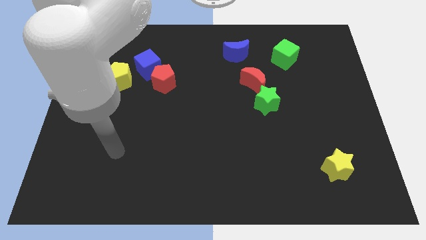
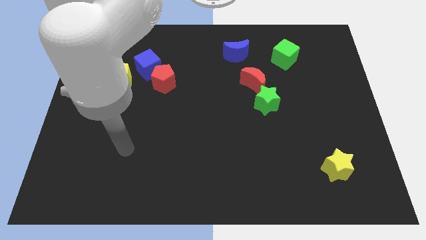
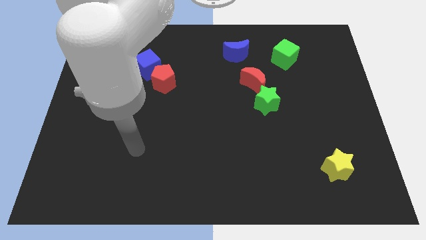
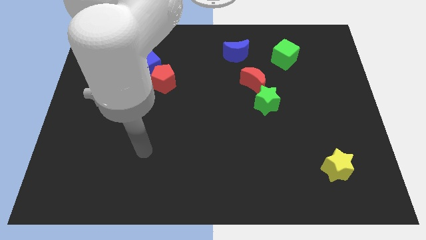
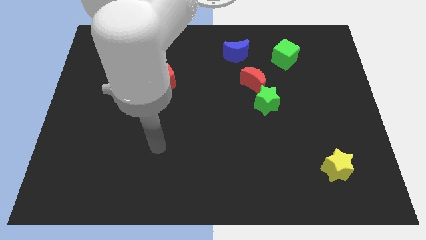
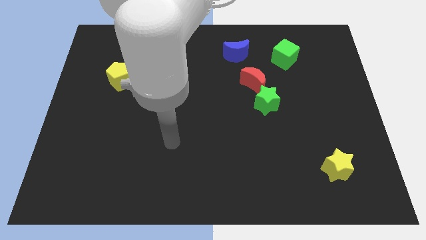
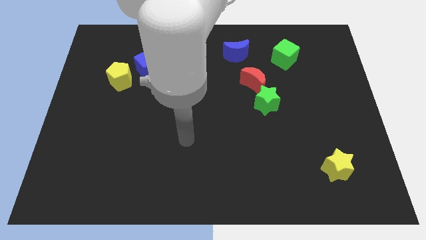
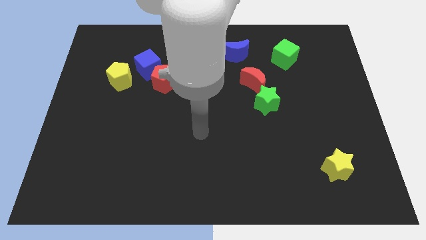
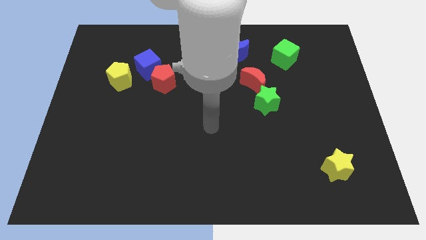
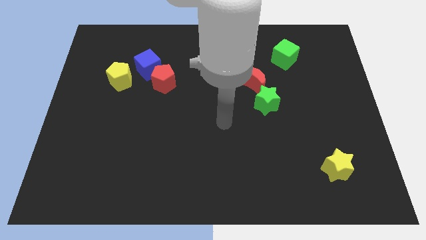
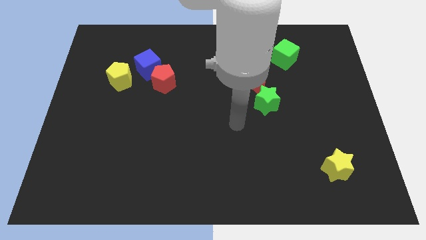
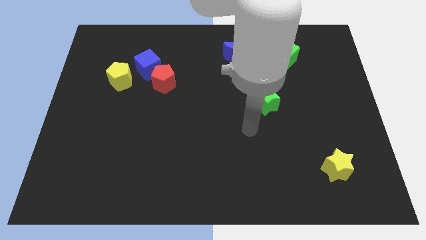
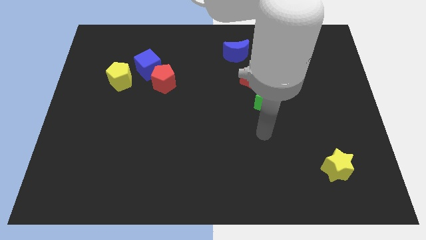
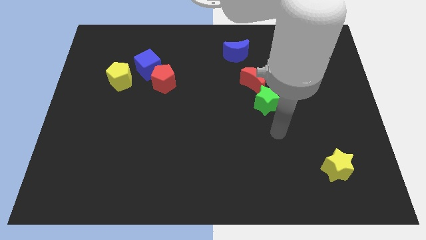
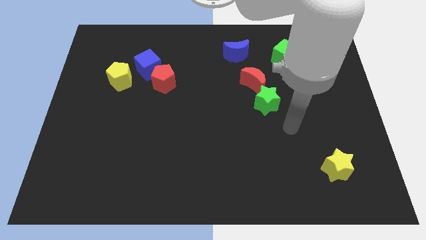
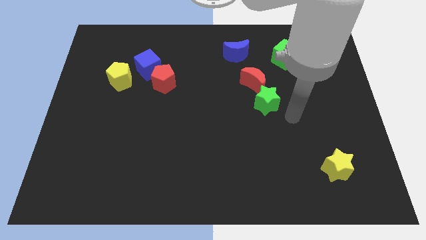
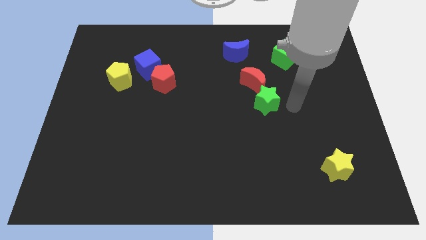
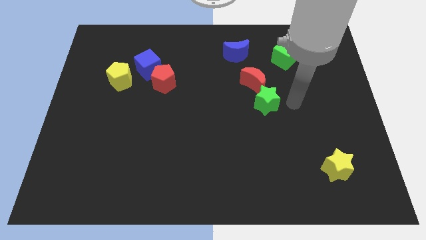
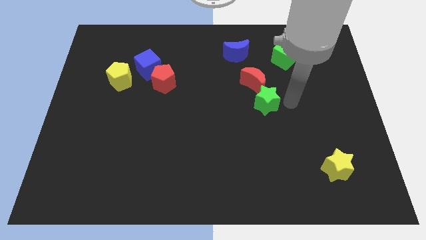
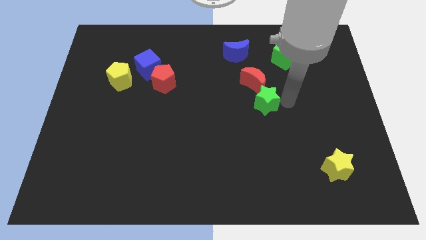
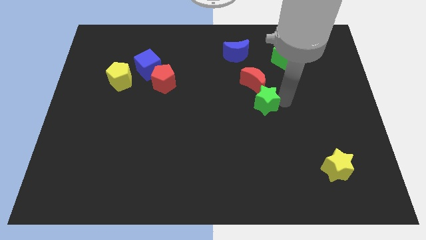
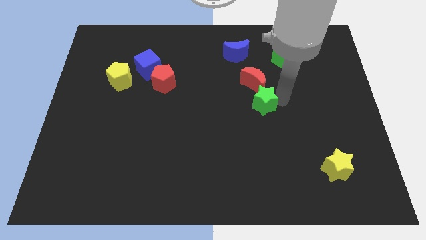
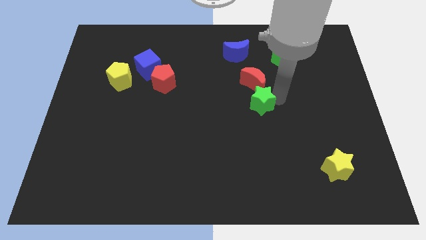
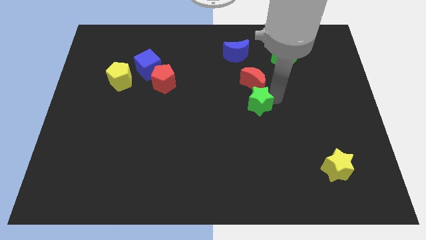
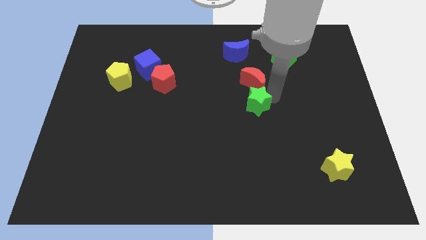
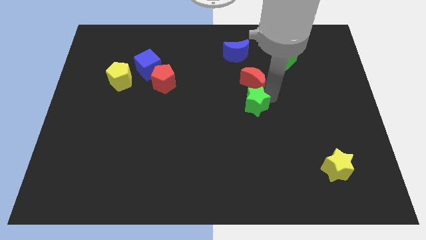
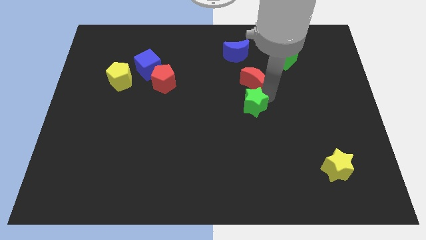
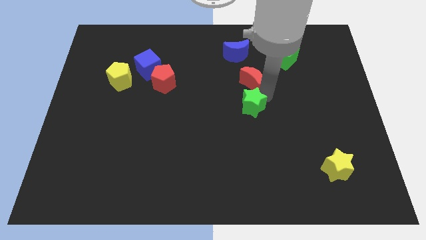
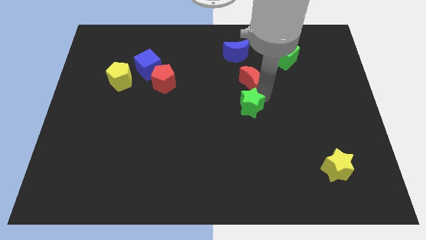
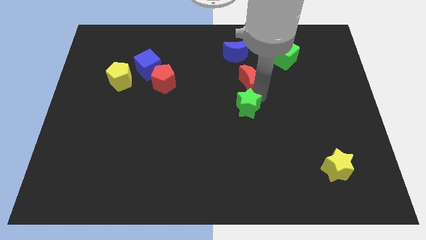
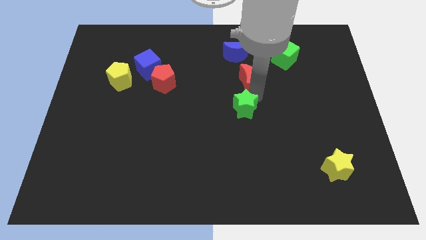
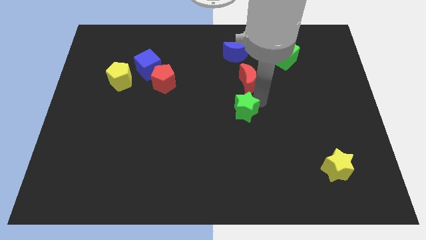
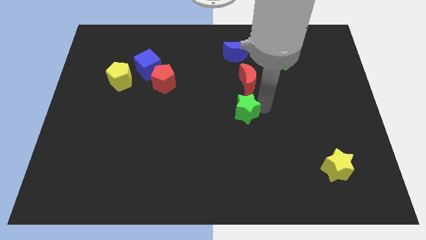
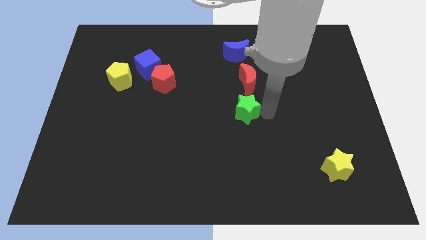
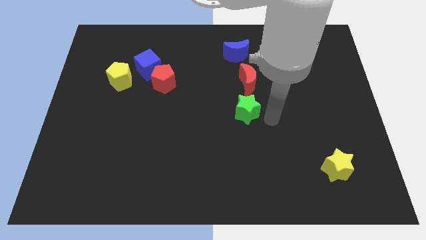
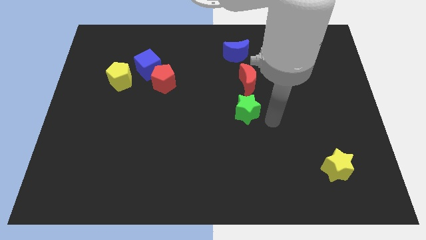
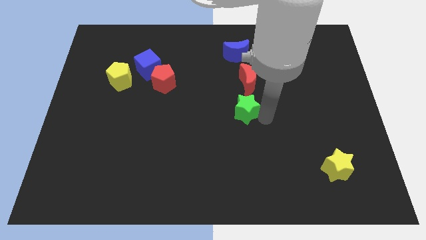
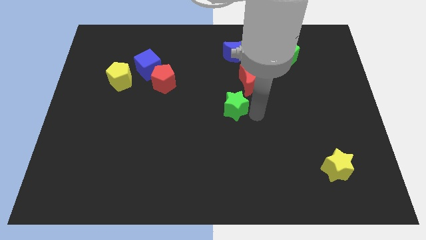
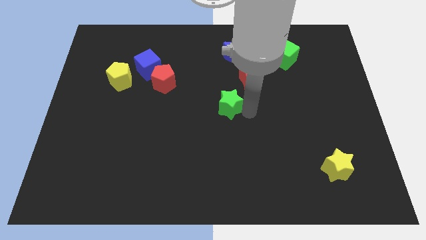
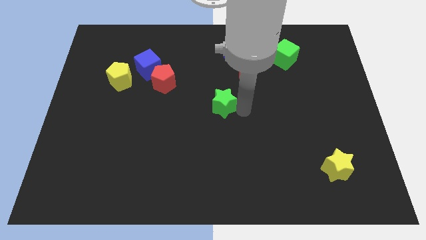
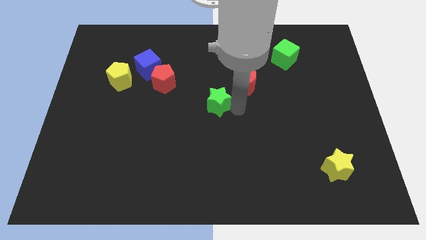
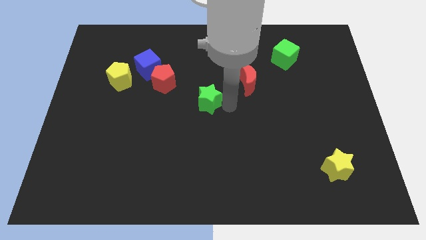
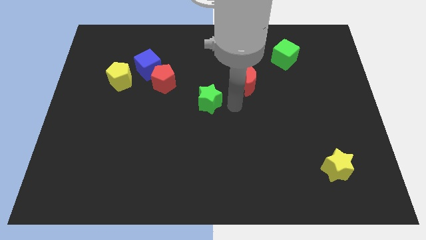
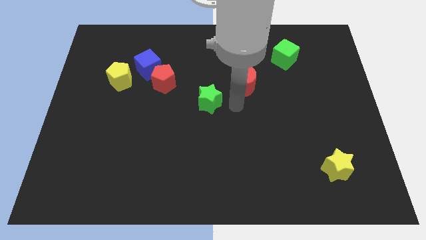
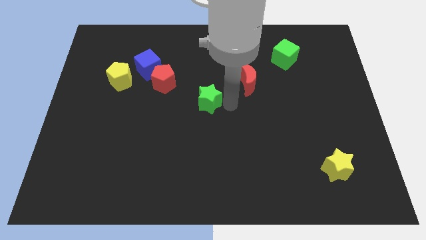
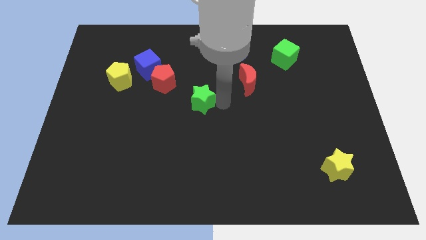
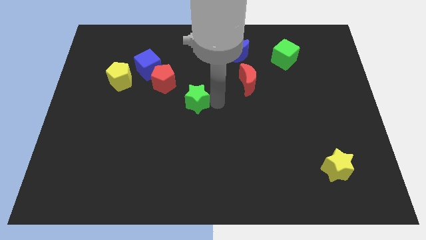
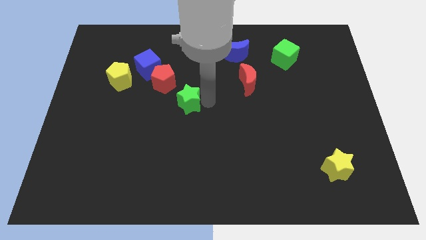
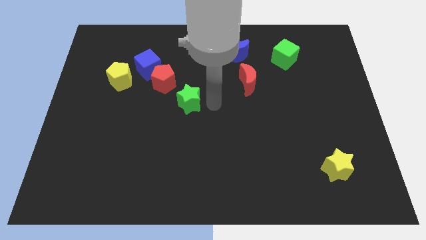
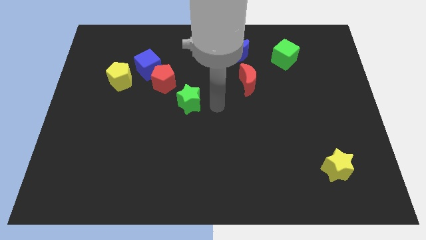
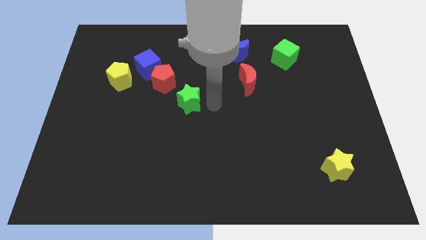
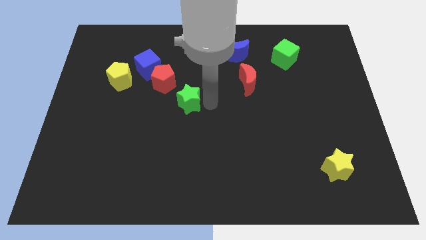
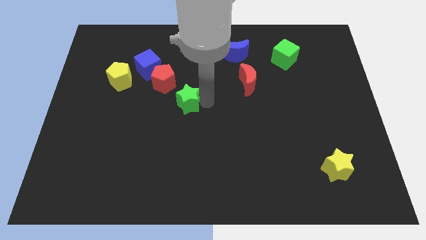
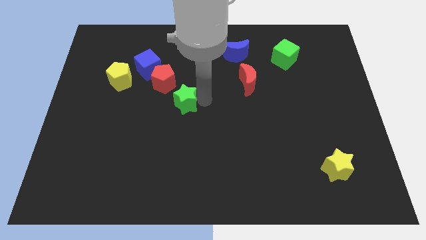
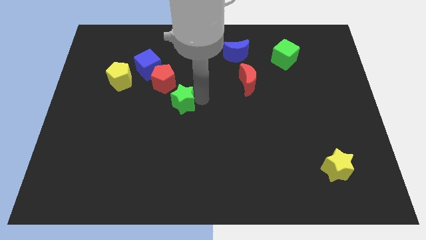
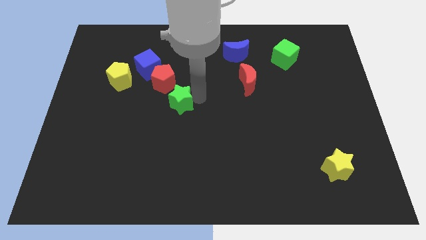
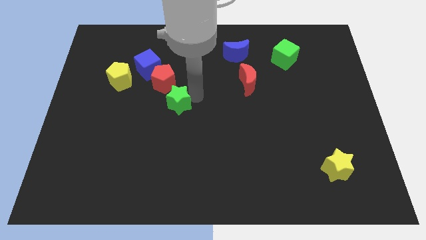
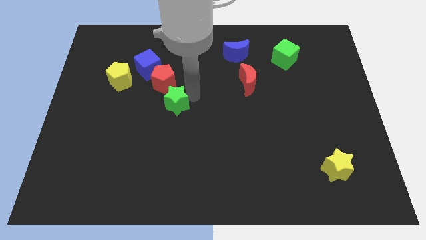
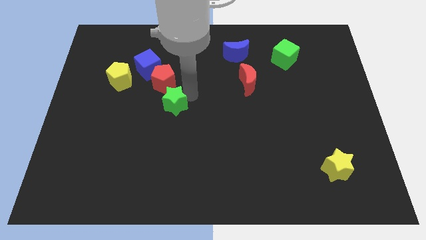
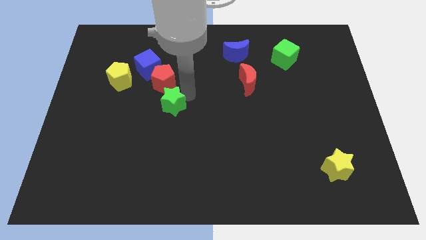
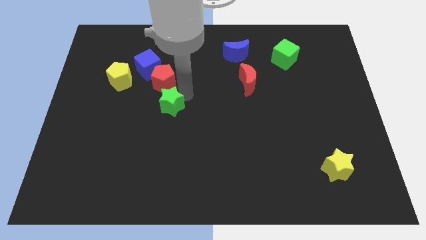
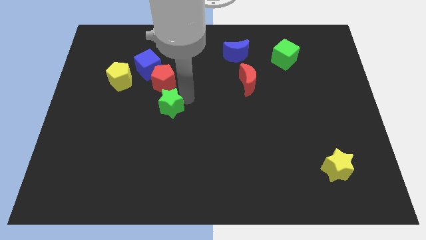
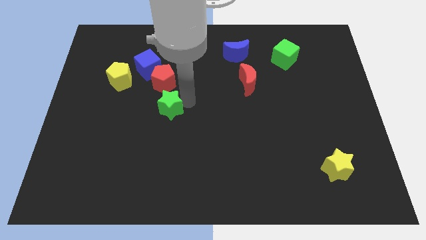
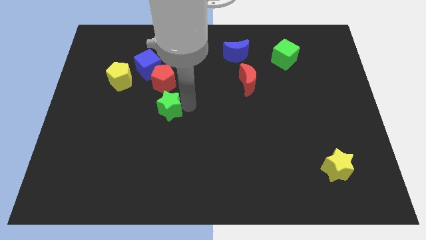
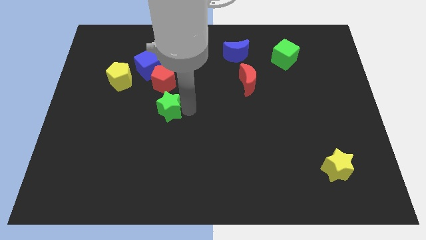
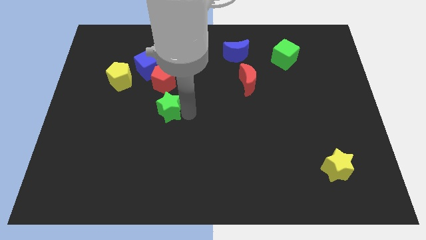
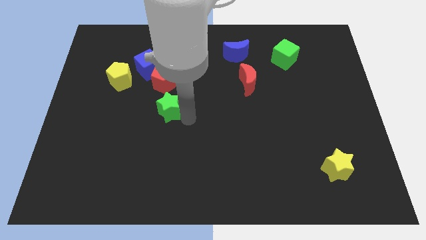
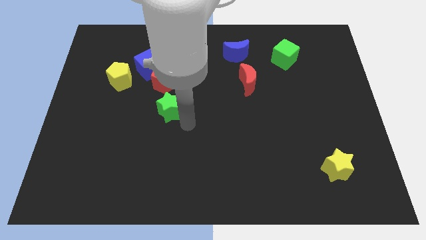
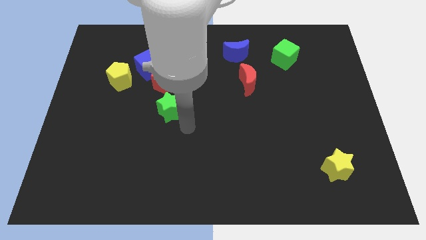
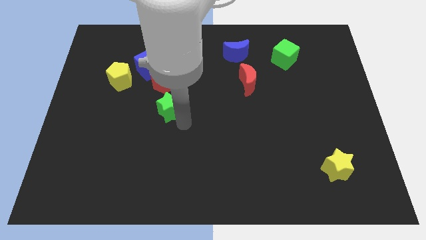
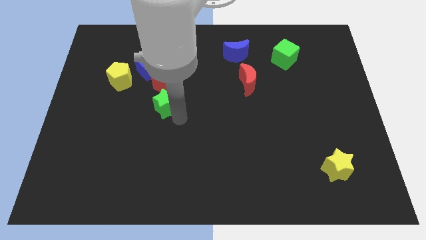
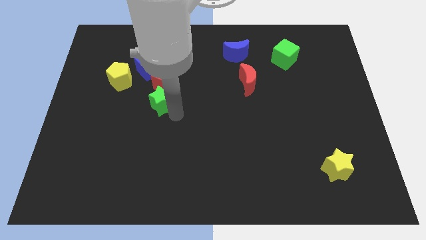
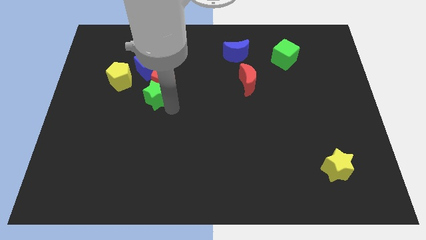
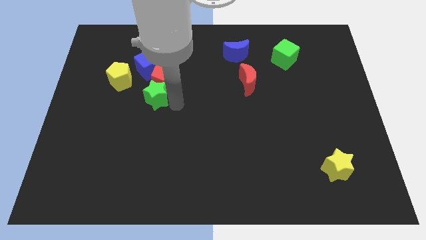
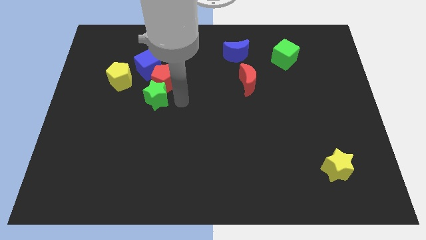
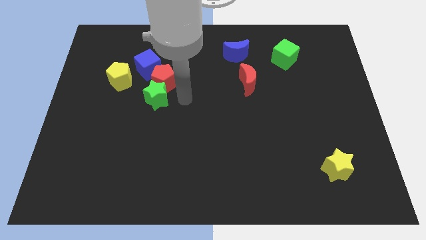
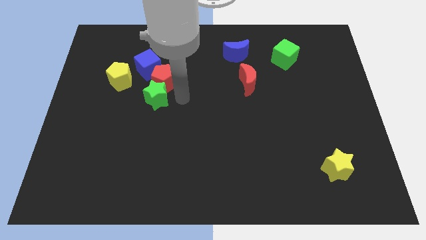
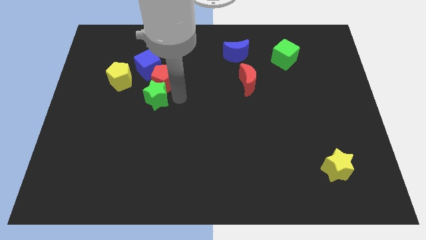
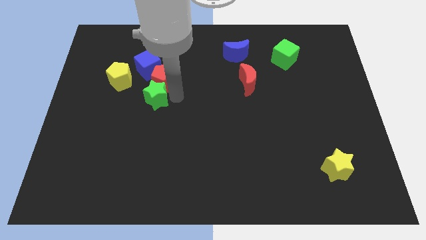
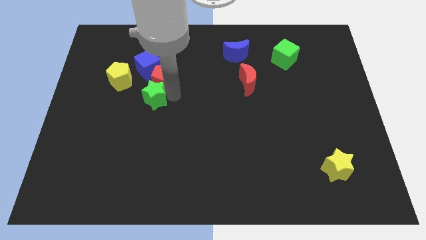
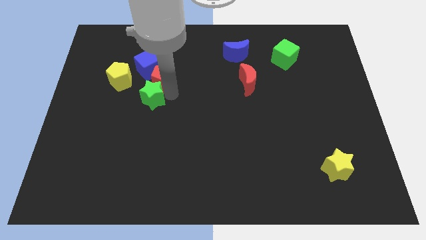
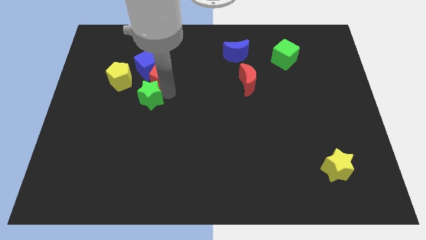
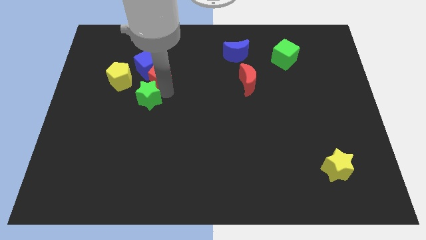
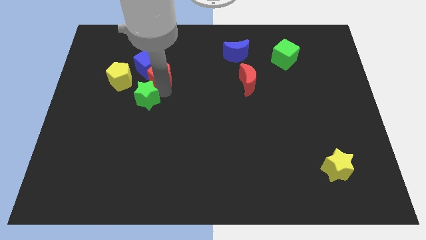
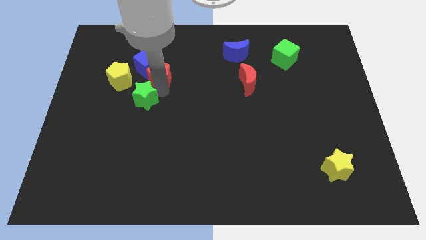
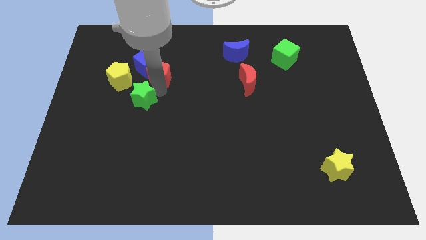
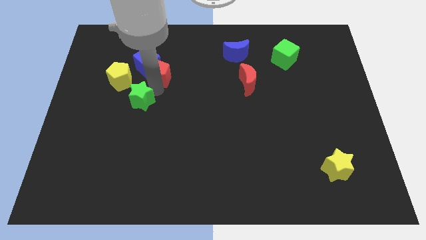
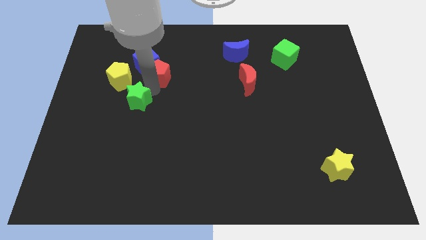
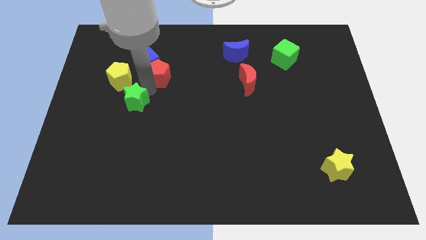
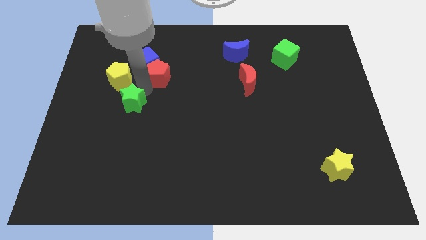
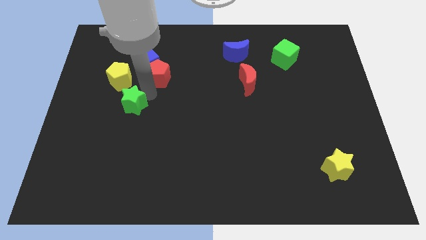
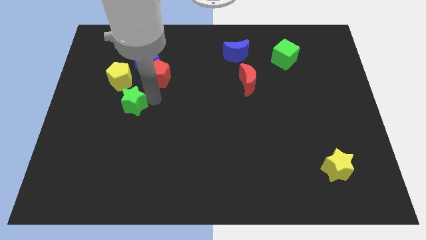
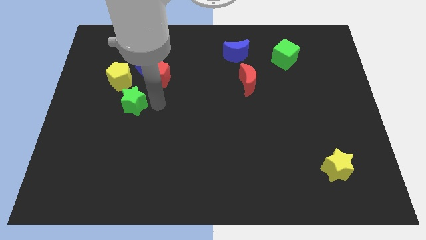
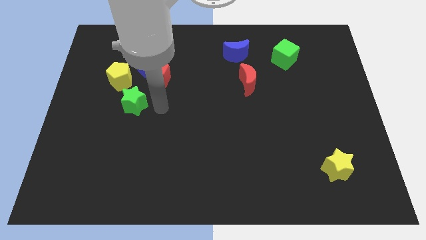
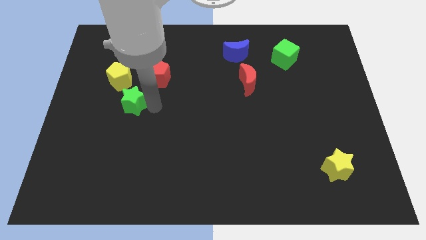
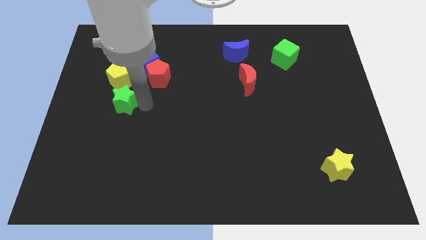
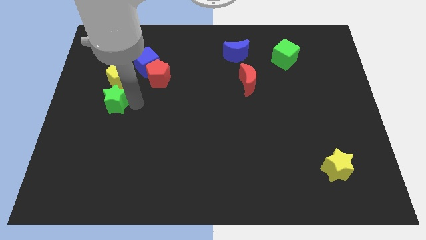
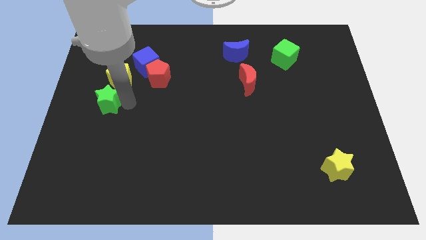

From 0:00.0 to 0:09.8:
move the green star to the bottom left of the yellow pentagon
